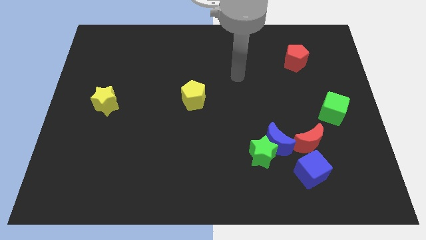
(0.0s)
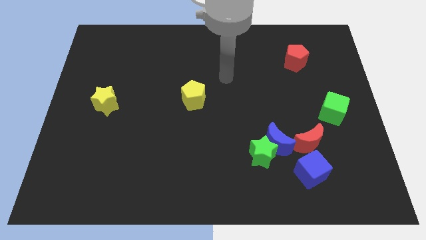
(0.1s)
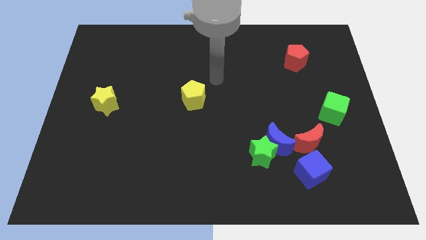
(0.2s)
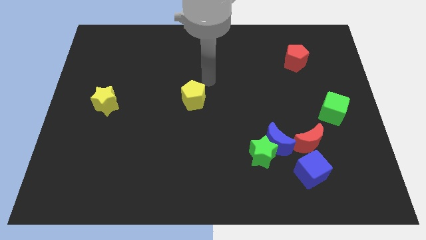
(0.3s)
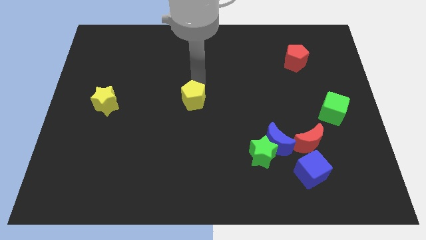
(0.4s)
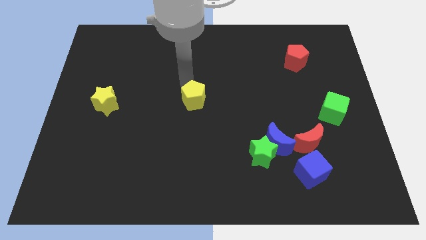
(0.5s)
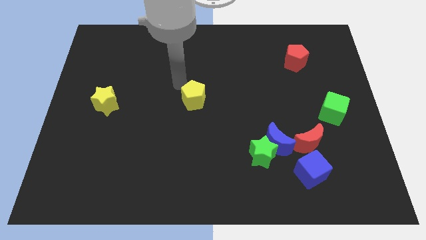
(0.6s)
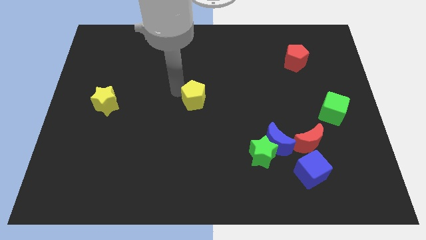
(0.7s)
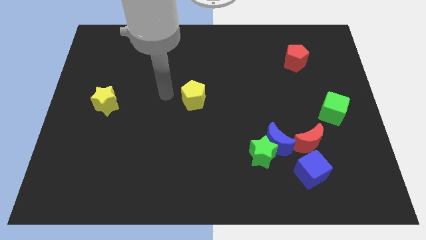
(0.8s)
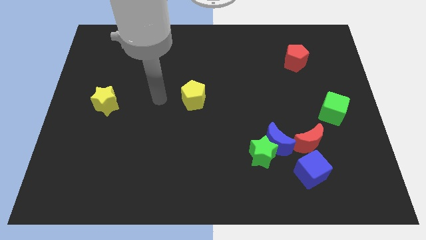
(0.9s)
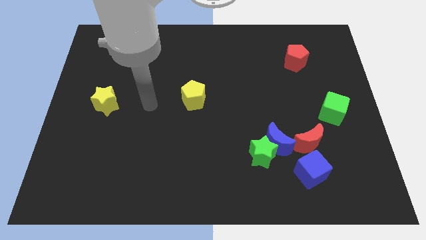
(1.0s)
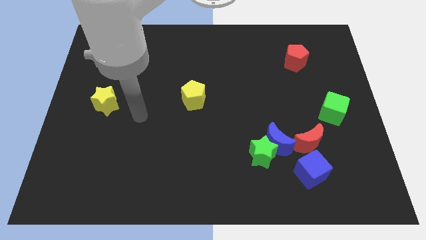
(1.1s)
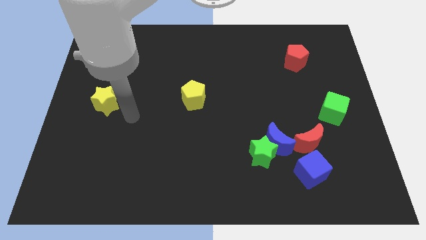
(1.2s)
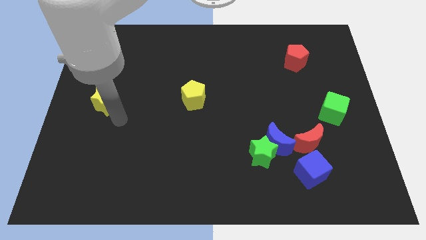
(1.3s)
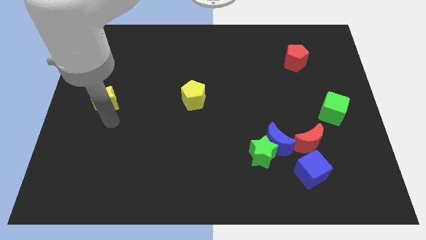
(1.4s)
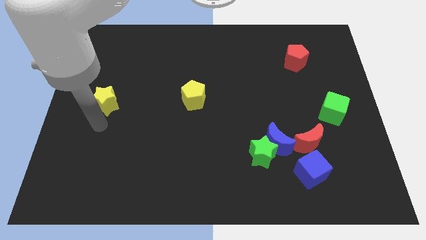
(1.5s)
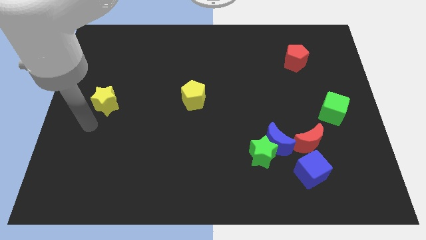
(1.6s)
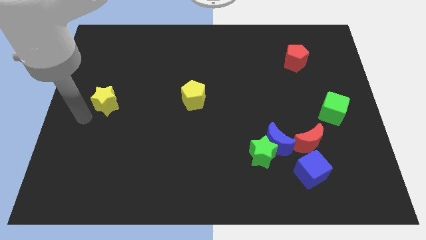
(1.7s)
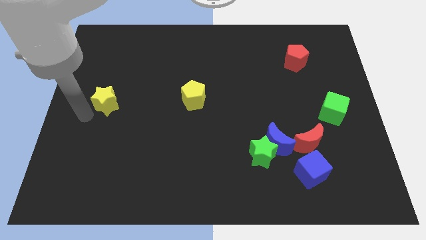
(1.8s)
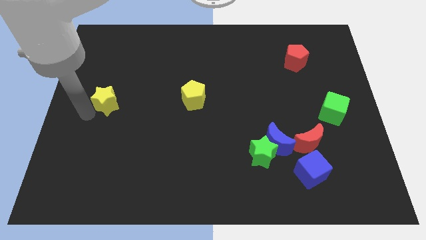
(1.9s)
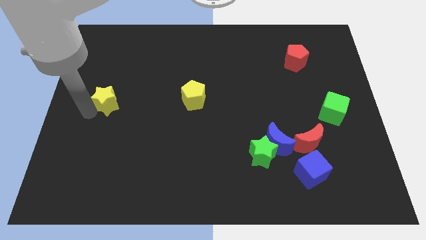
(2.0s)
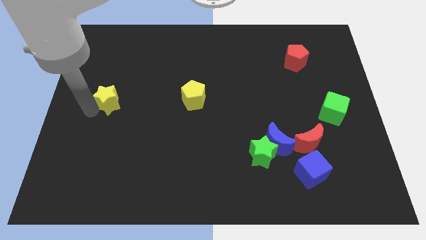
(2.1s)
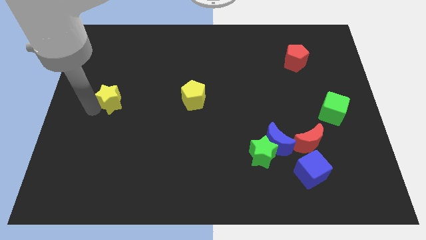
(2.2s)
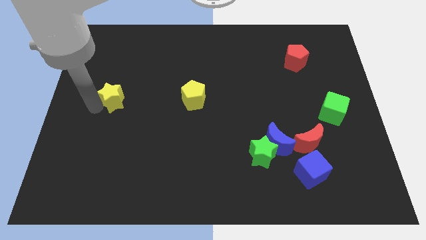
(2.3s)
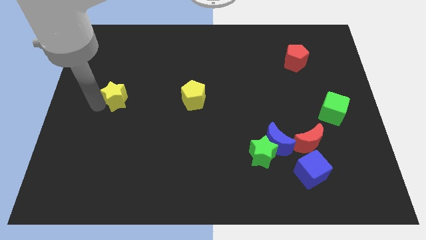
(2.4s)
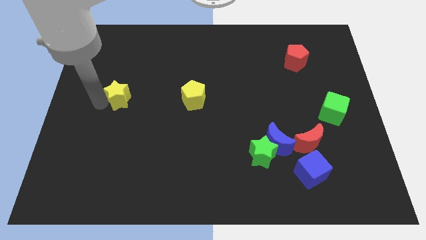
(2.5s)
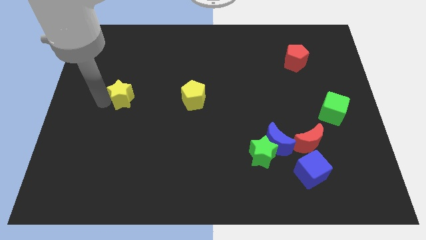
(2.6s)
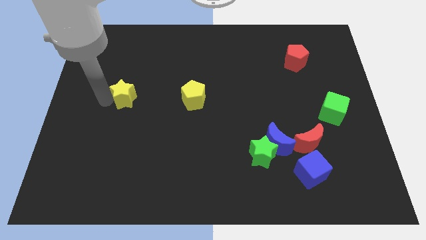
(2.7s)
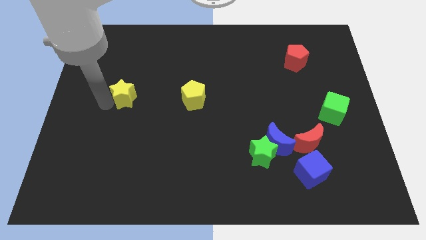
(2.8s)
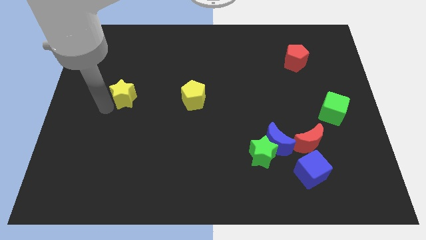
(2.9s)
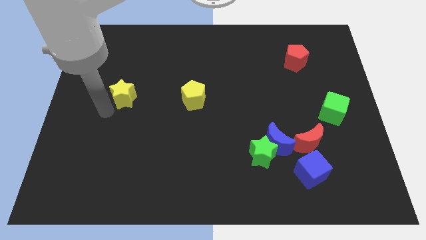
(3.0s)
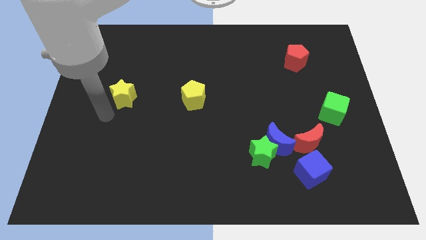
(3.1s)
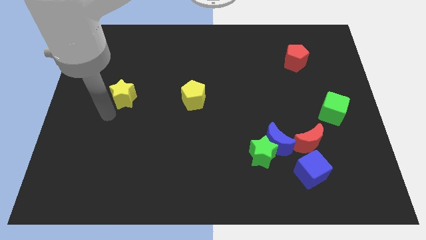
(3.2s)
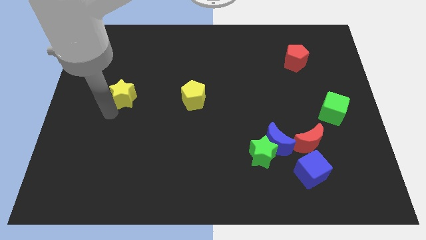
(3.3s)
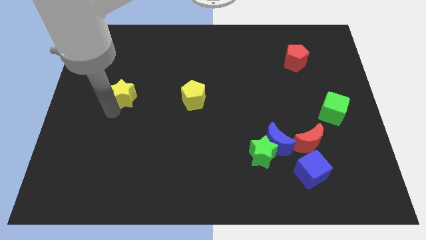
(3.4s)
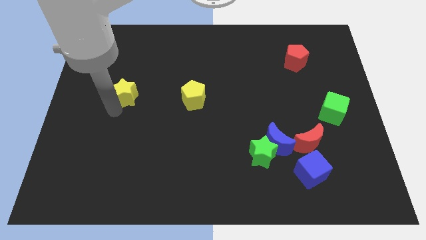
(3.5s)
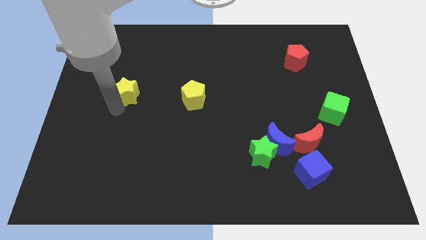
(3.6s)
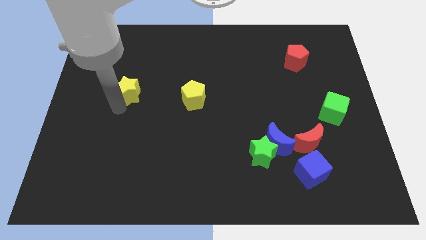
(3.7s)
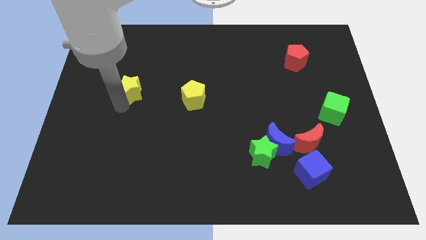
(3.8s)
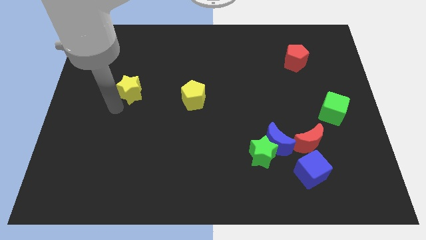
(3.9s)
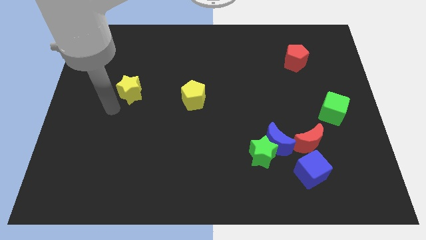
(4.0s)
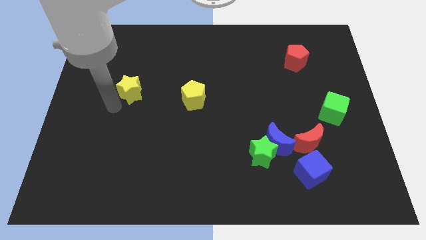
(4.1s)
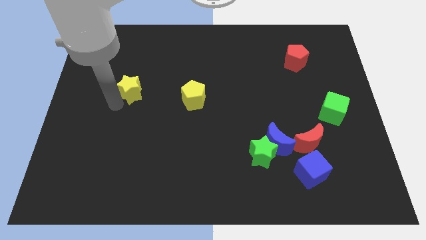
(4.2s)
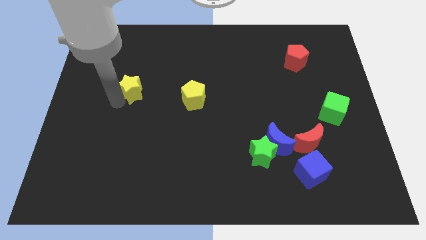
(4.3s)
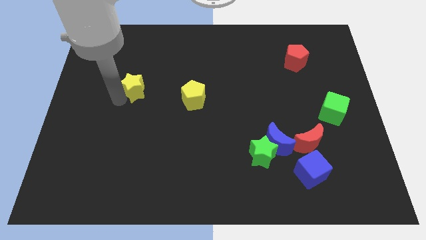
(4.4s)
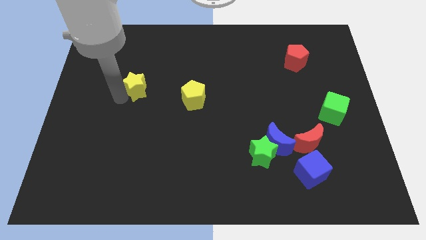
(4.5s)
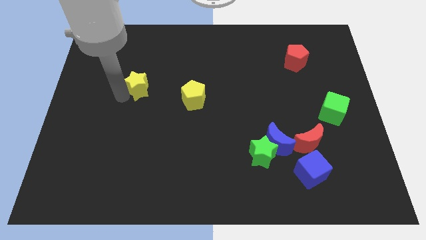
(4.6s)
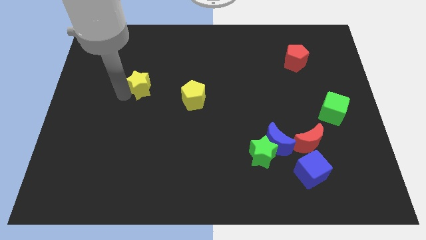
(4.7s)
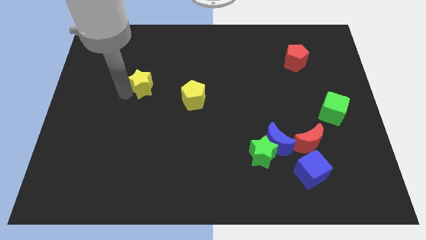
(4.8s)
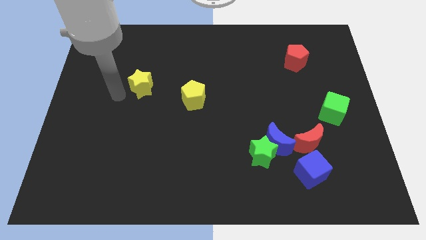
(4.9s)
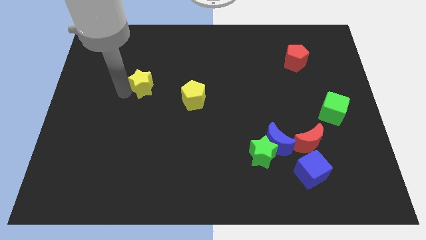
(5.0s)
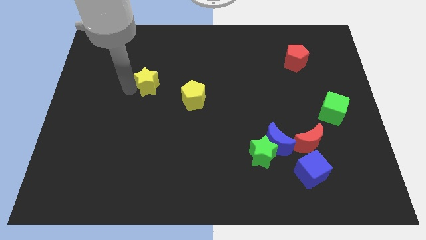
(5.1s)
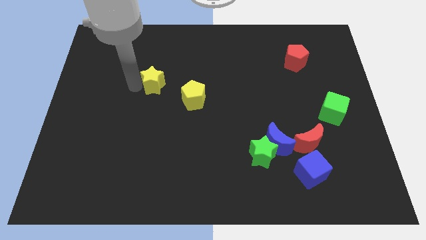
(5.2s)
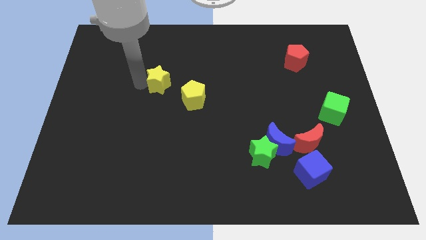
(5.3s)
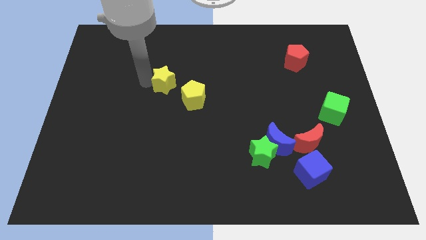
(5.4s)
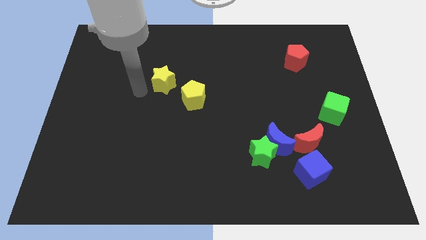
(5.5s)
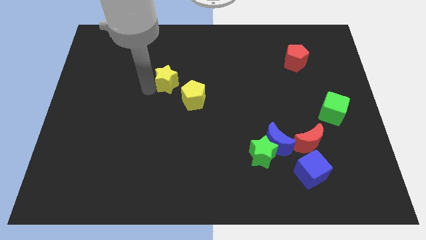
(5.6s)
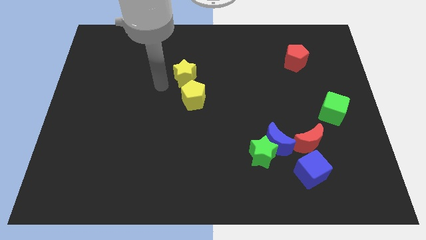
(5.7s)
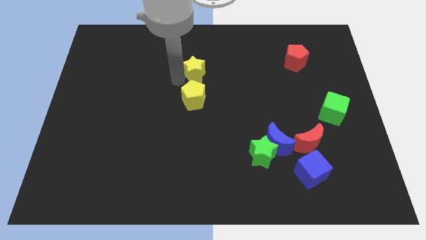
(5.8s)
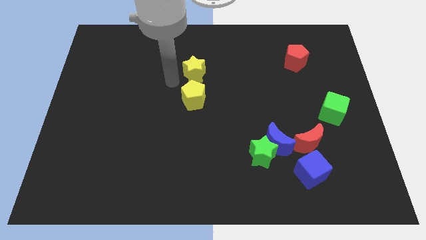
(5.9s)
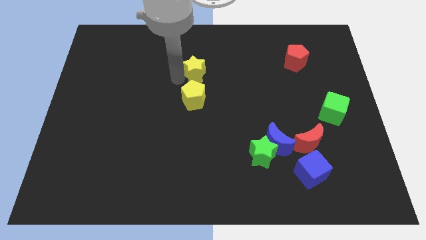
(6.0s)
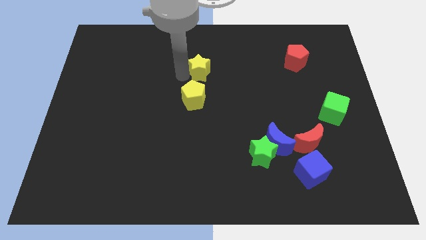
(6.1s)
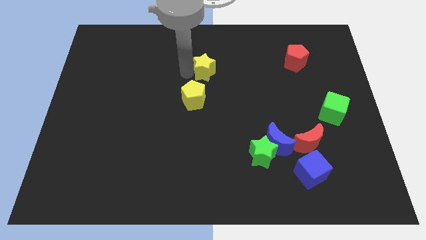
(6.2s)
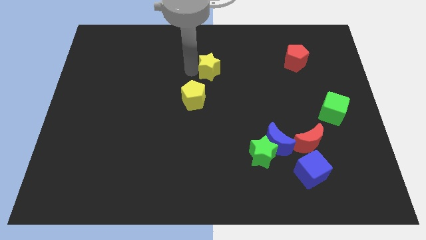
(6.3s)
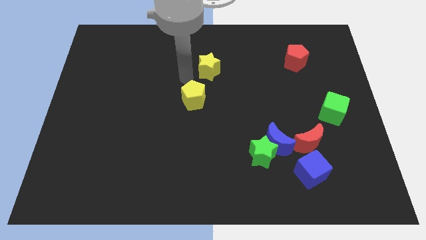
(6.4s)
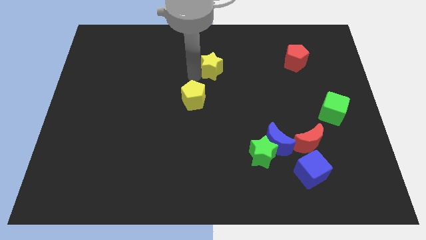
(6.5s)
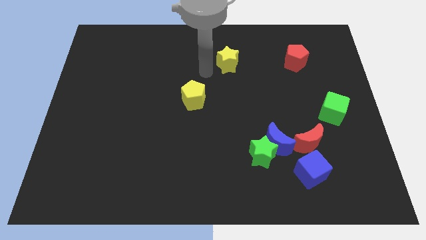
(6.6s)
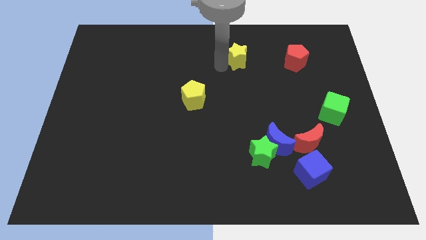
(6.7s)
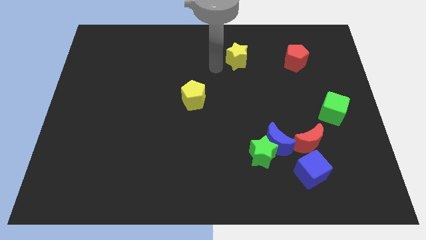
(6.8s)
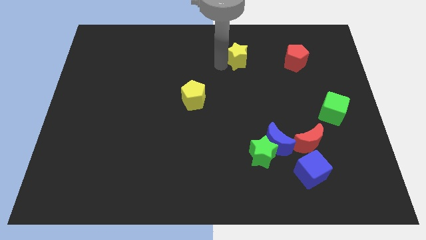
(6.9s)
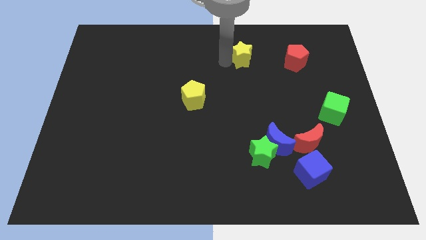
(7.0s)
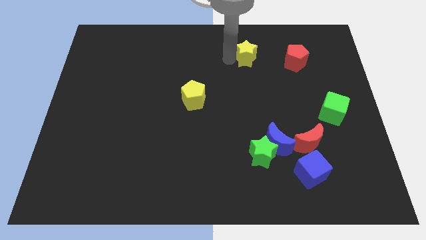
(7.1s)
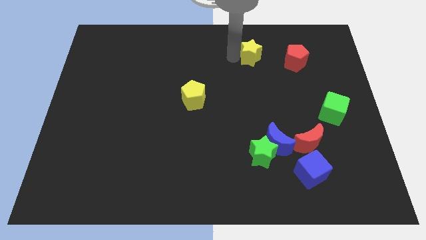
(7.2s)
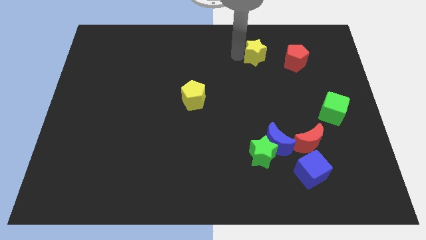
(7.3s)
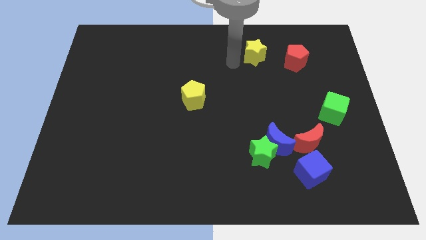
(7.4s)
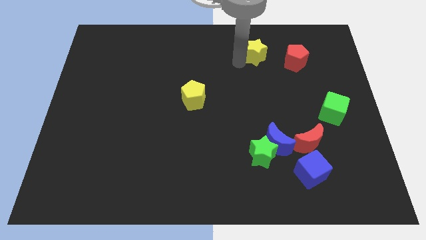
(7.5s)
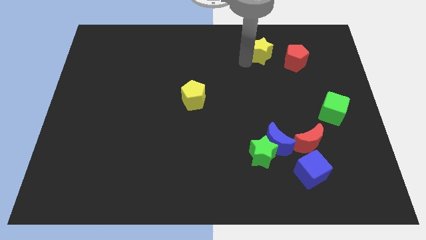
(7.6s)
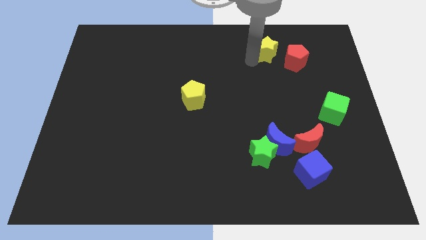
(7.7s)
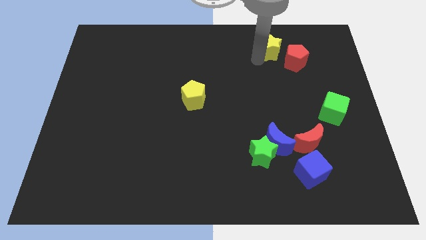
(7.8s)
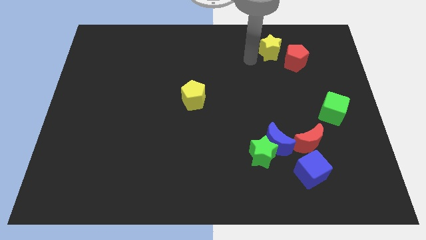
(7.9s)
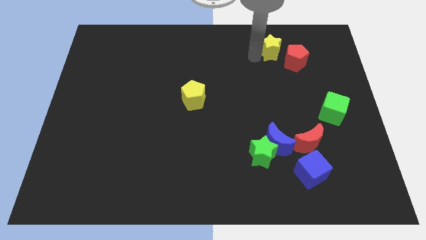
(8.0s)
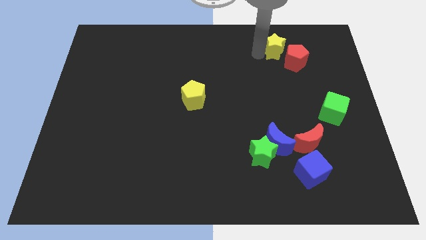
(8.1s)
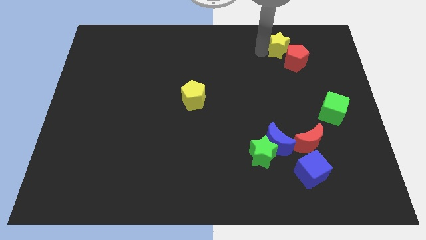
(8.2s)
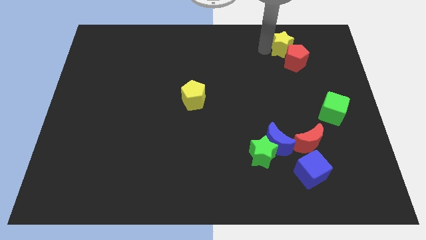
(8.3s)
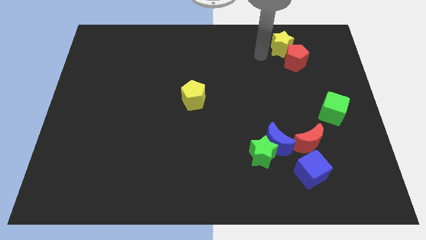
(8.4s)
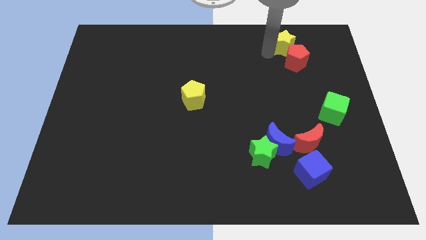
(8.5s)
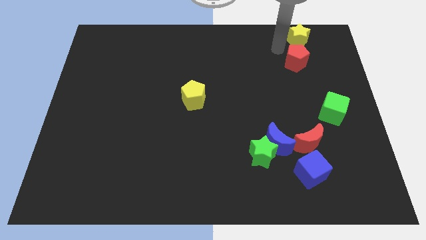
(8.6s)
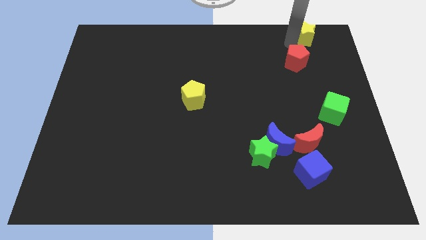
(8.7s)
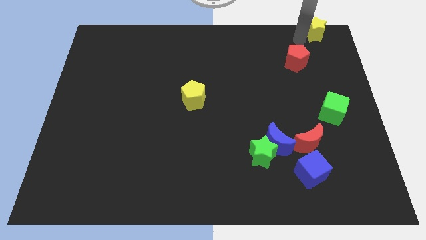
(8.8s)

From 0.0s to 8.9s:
move the yellow star to the top right of the board
